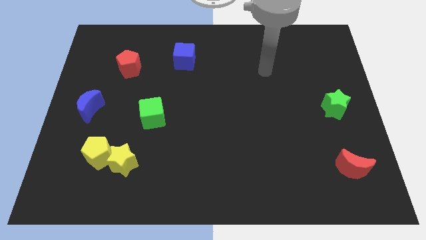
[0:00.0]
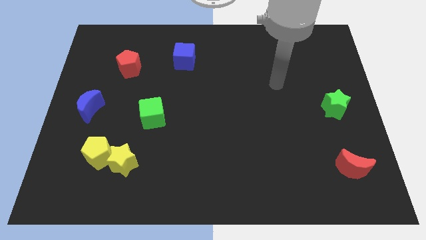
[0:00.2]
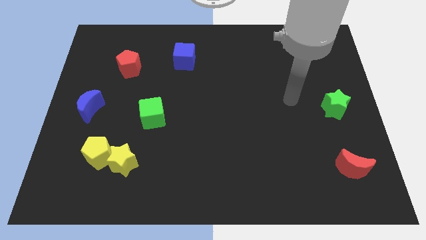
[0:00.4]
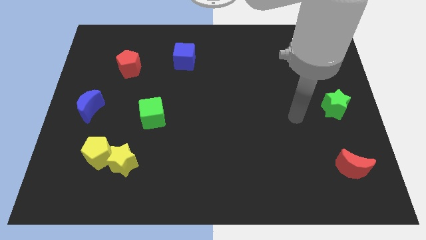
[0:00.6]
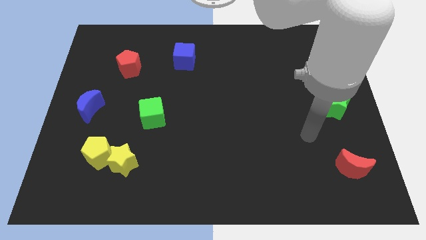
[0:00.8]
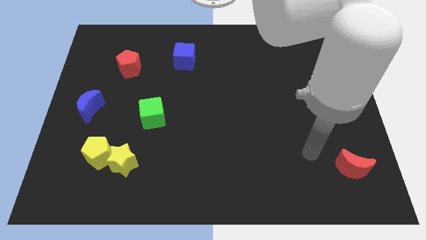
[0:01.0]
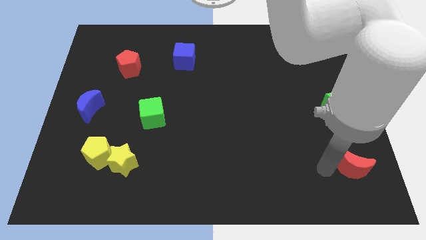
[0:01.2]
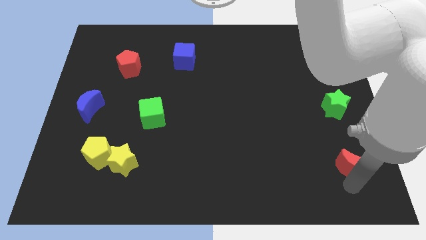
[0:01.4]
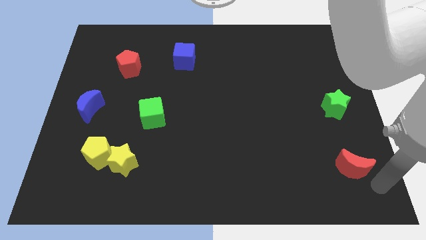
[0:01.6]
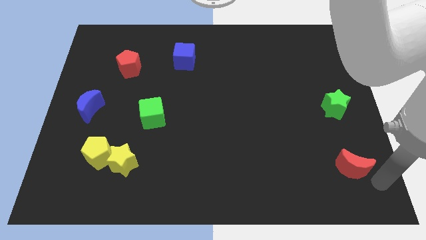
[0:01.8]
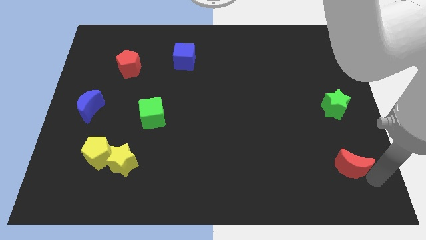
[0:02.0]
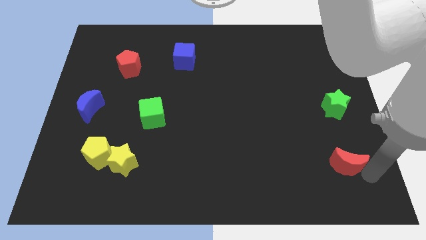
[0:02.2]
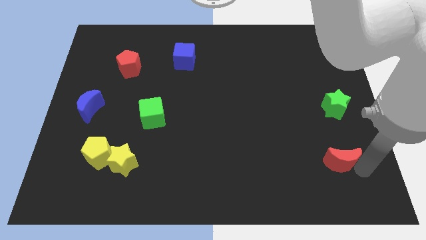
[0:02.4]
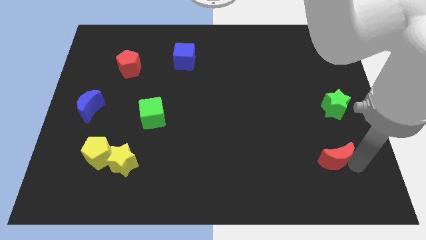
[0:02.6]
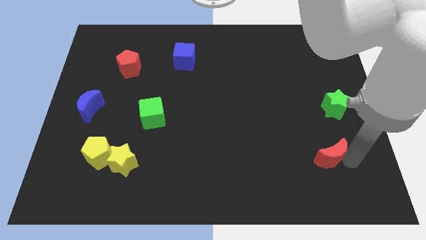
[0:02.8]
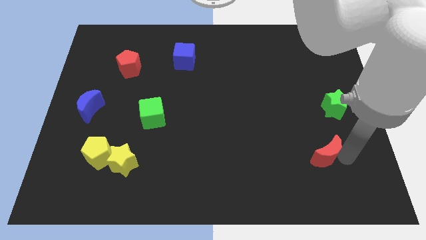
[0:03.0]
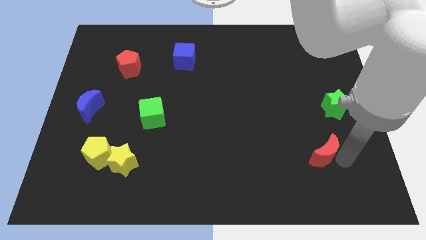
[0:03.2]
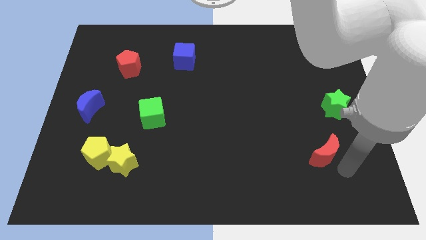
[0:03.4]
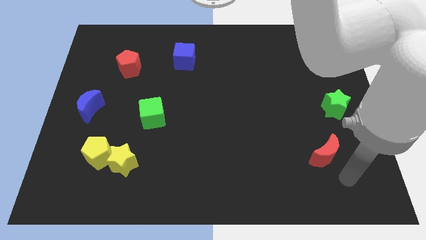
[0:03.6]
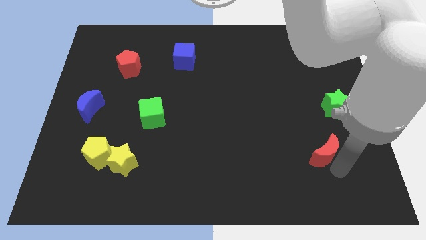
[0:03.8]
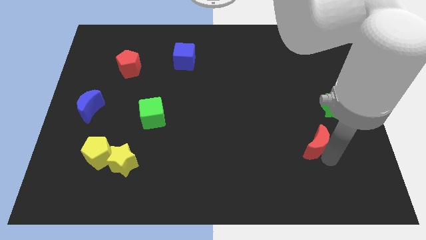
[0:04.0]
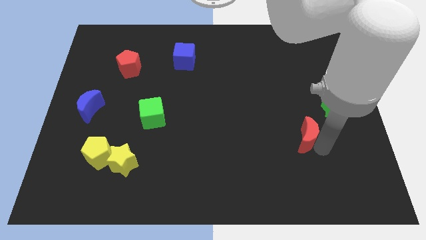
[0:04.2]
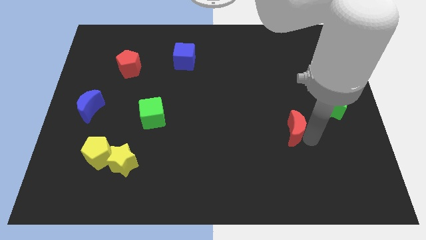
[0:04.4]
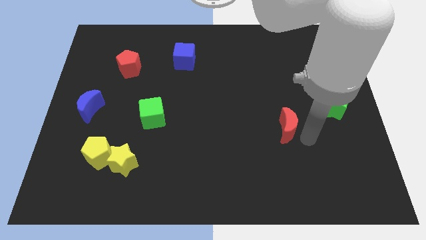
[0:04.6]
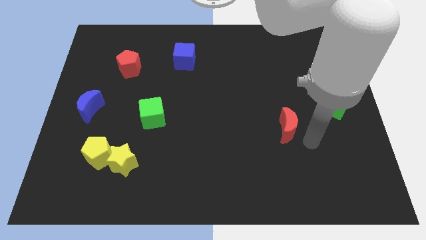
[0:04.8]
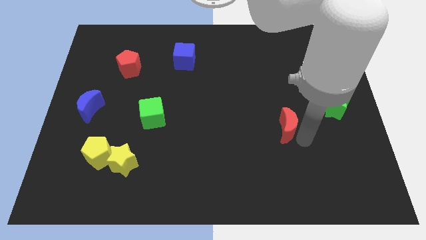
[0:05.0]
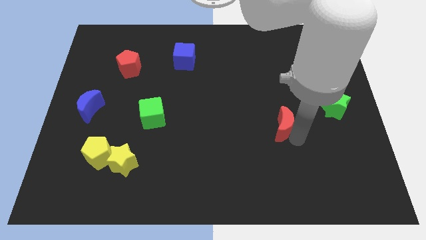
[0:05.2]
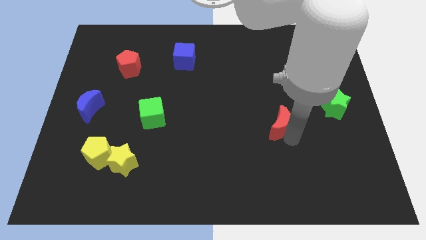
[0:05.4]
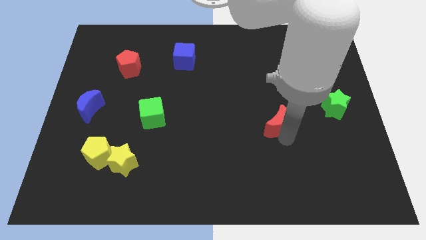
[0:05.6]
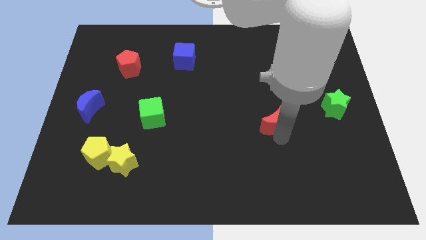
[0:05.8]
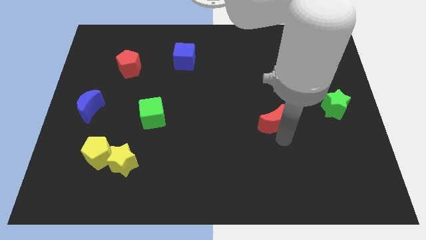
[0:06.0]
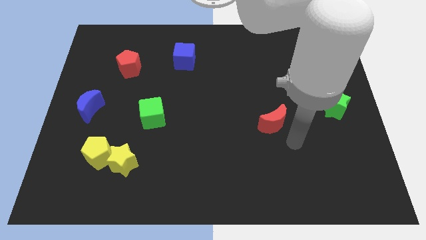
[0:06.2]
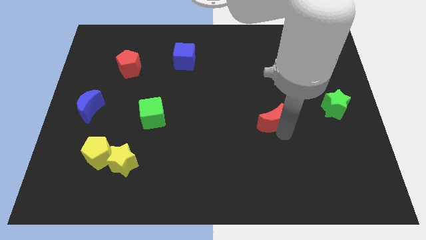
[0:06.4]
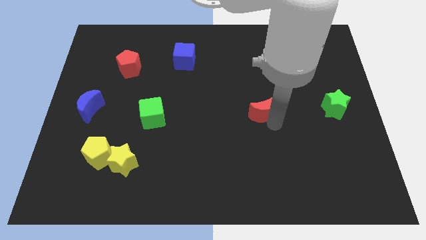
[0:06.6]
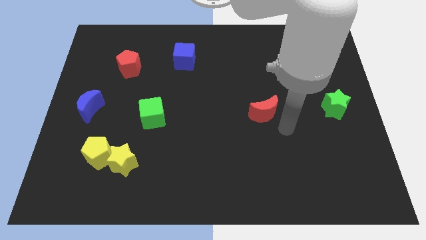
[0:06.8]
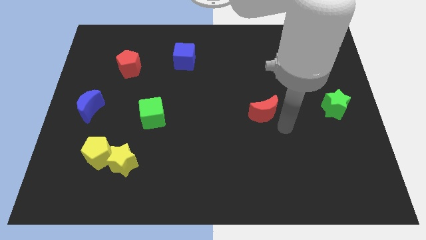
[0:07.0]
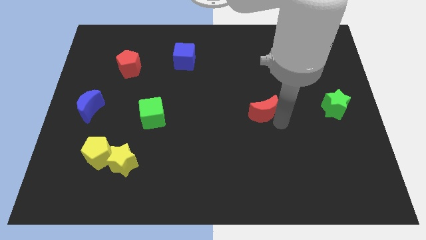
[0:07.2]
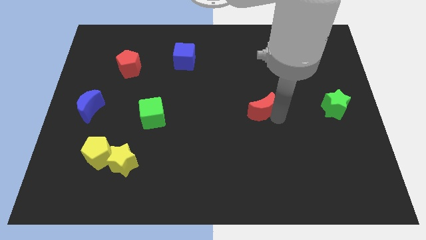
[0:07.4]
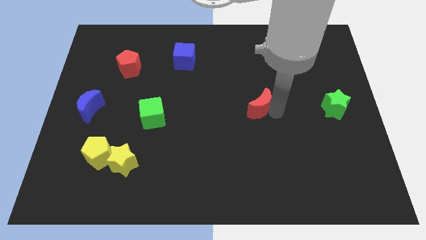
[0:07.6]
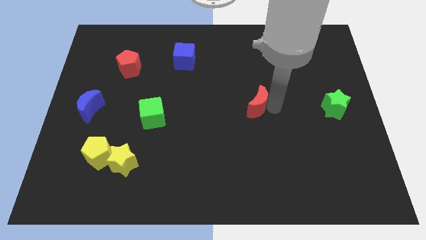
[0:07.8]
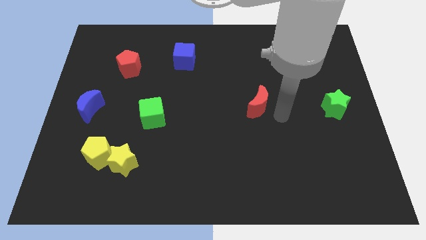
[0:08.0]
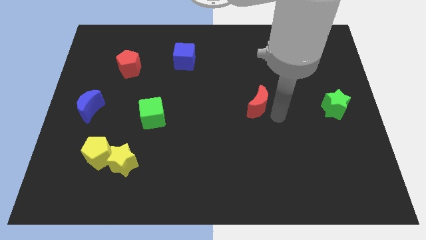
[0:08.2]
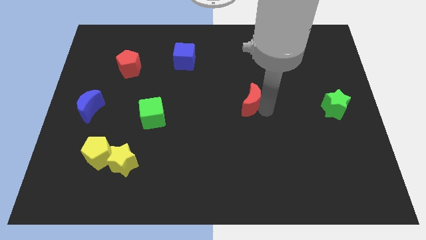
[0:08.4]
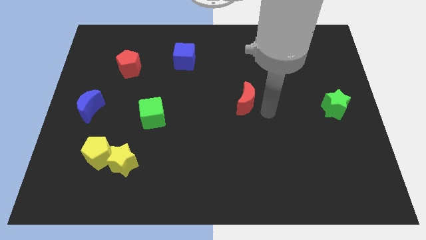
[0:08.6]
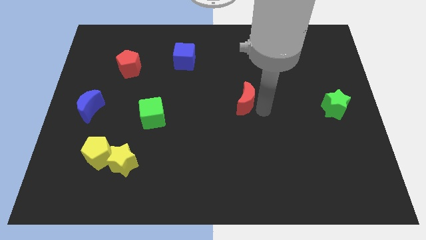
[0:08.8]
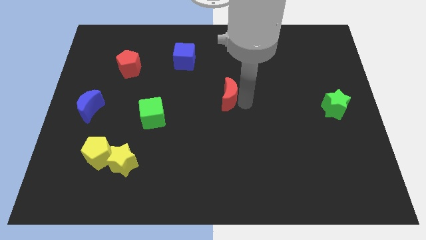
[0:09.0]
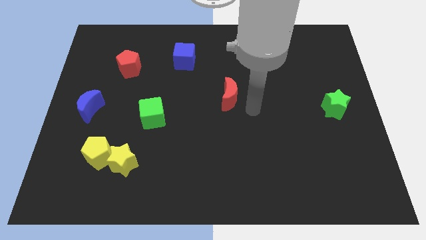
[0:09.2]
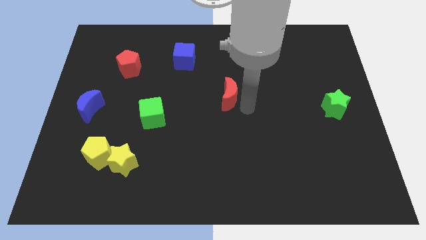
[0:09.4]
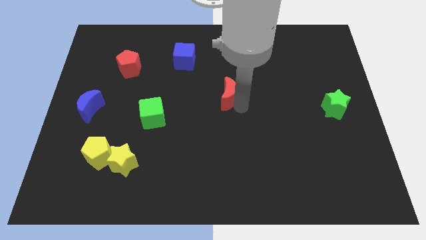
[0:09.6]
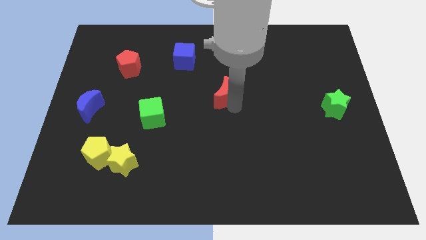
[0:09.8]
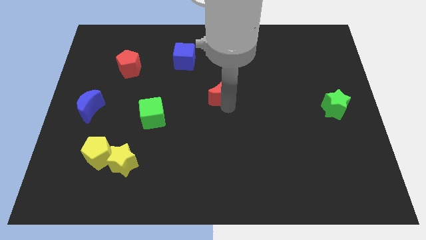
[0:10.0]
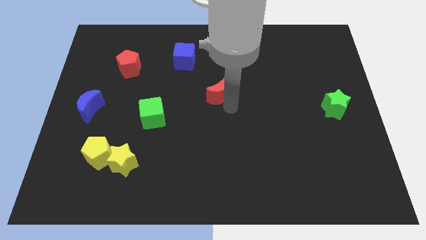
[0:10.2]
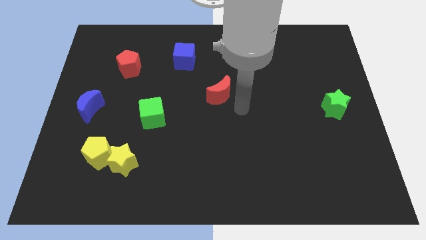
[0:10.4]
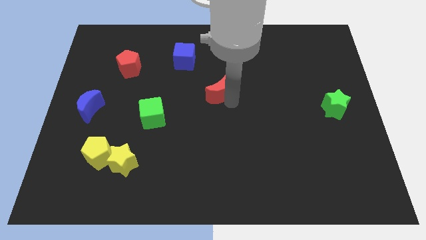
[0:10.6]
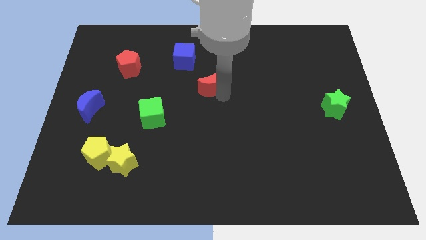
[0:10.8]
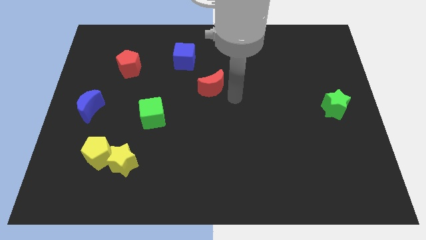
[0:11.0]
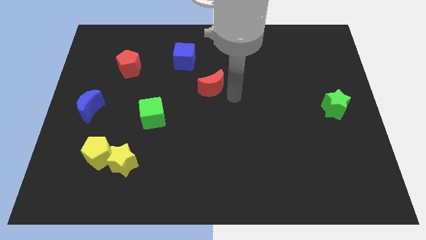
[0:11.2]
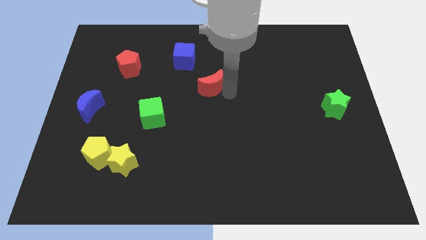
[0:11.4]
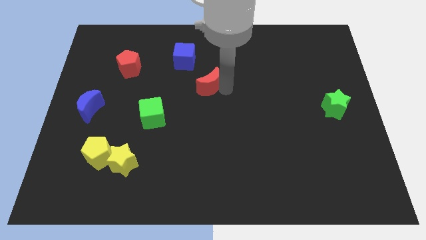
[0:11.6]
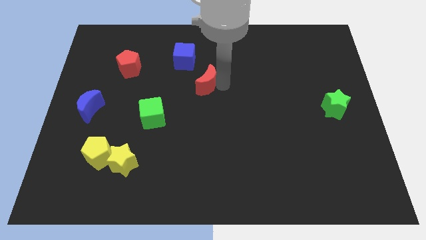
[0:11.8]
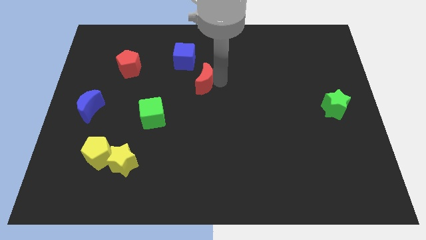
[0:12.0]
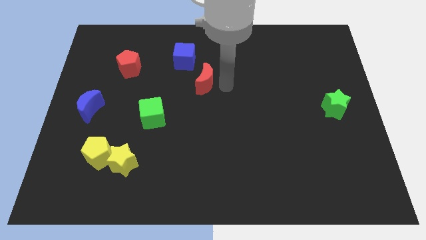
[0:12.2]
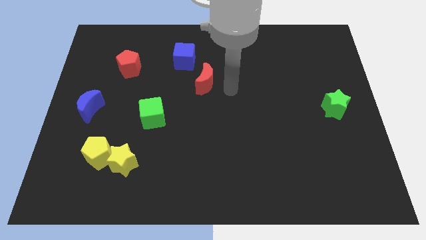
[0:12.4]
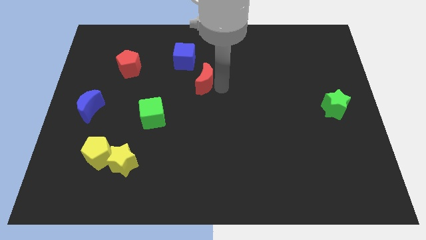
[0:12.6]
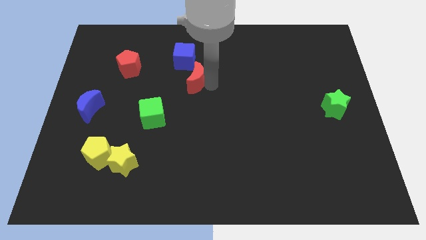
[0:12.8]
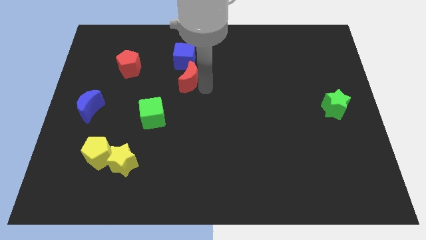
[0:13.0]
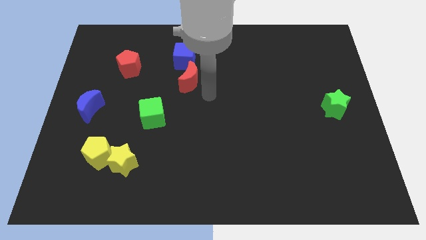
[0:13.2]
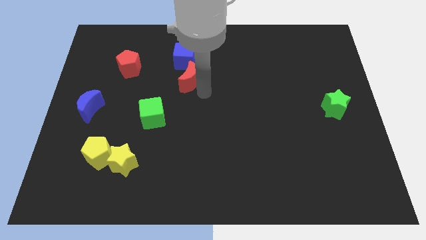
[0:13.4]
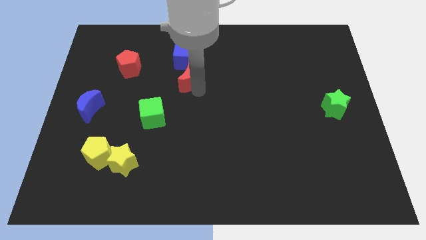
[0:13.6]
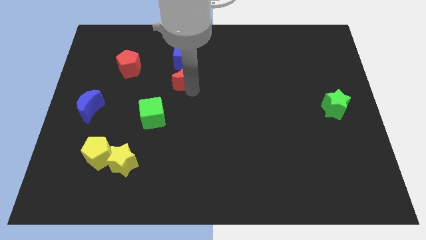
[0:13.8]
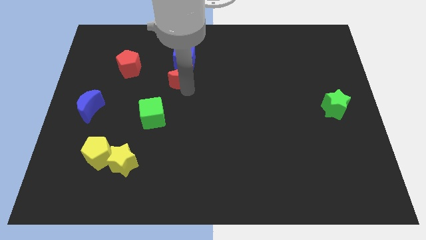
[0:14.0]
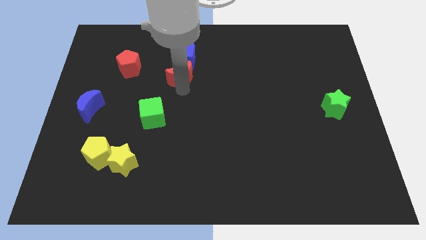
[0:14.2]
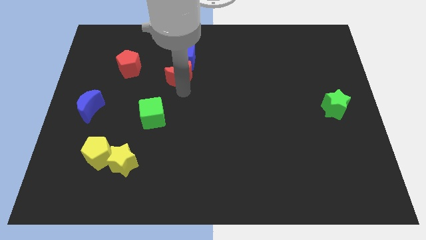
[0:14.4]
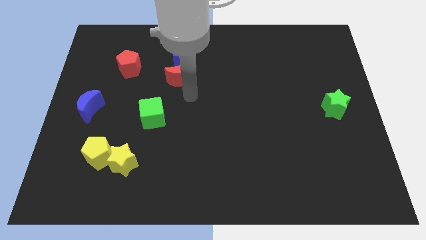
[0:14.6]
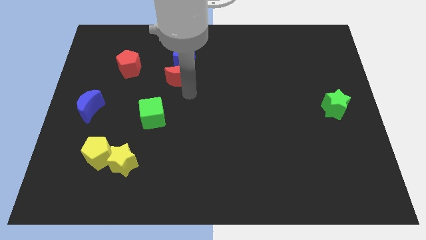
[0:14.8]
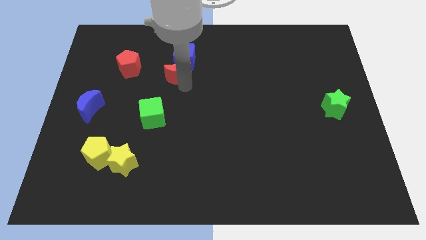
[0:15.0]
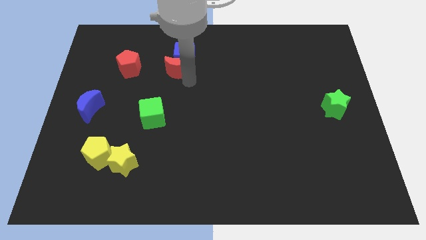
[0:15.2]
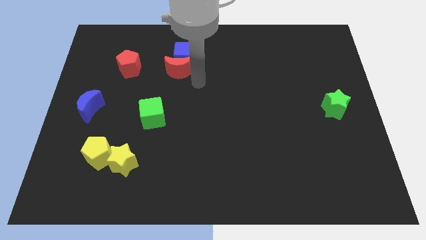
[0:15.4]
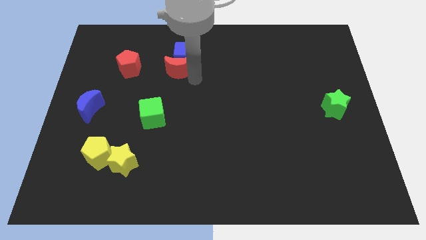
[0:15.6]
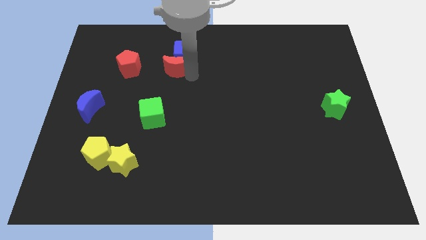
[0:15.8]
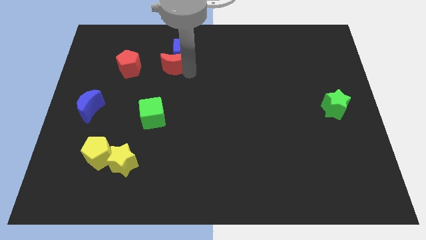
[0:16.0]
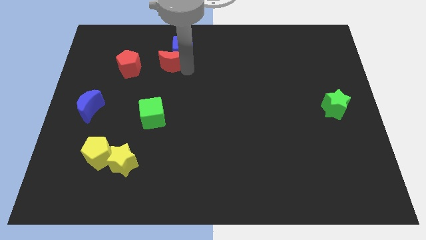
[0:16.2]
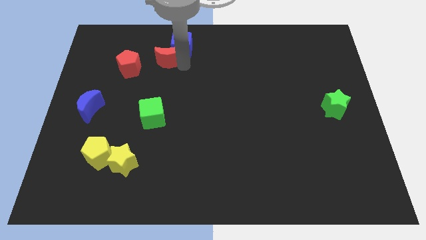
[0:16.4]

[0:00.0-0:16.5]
push the red moon to the left of the blue cube
